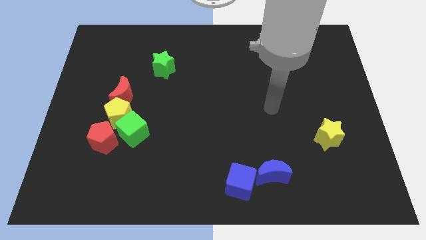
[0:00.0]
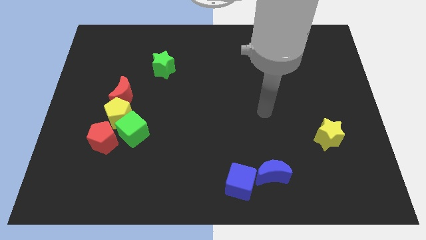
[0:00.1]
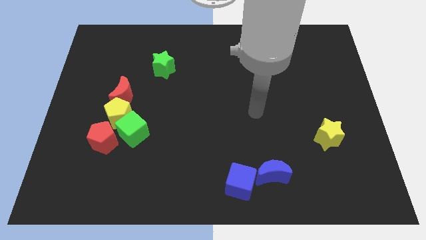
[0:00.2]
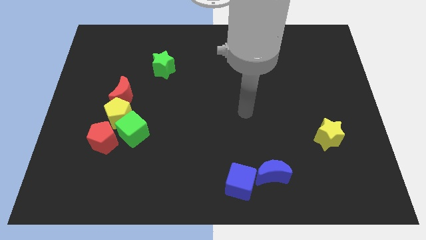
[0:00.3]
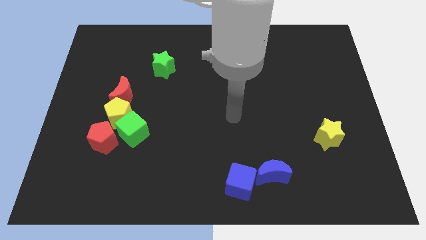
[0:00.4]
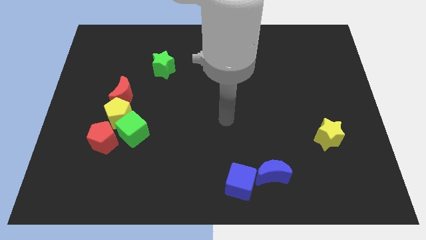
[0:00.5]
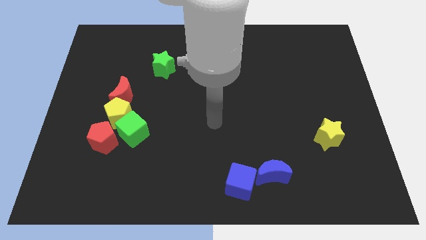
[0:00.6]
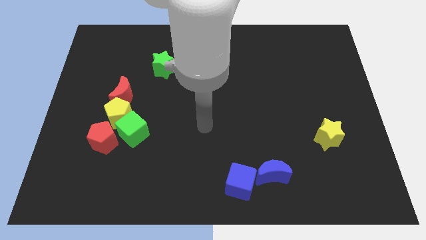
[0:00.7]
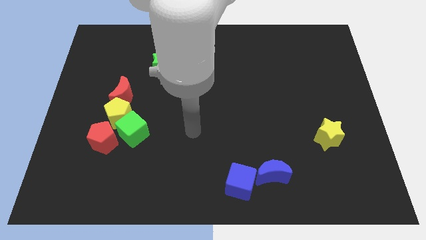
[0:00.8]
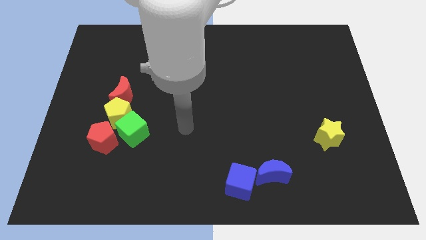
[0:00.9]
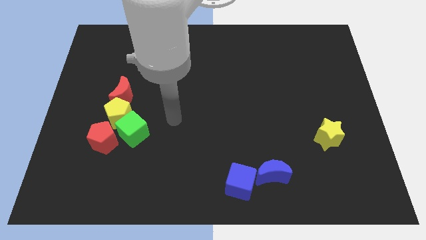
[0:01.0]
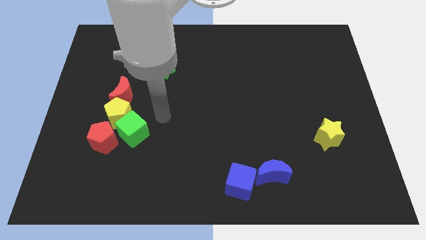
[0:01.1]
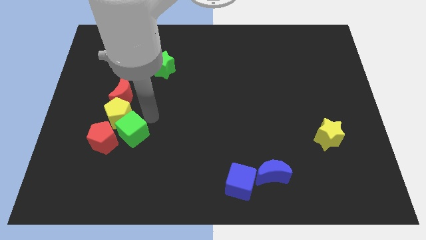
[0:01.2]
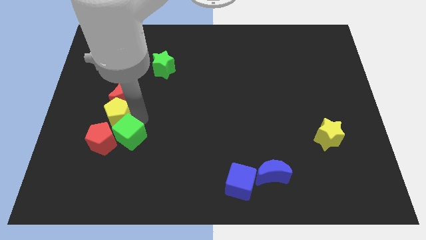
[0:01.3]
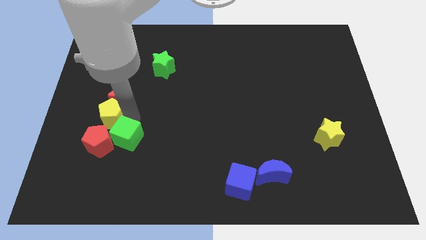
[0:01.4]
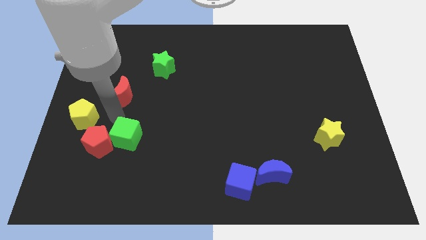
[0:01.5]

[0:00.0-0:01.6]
separate the red moon from the yellow pentagon

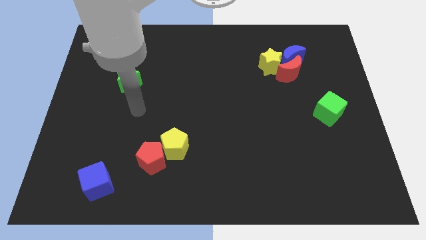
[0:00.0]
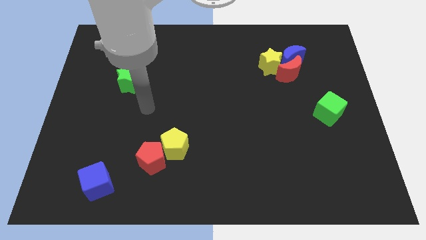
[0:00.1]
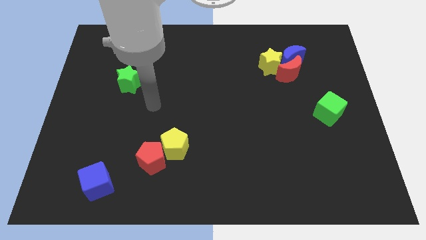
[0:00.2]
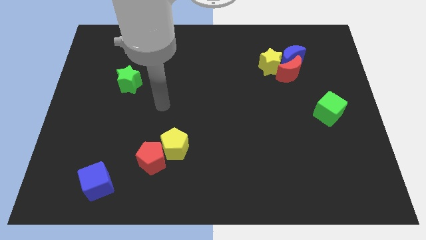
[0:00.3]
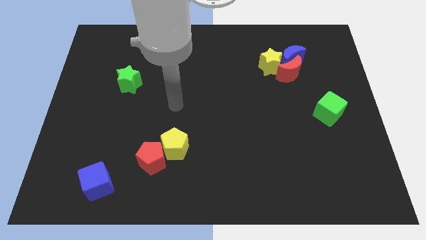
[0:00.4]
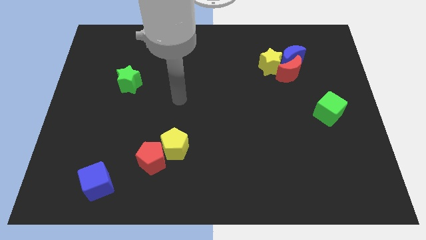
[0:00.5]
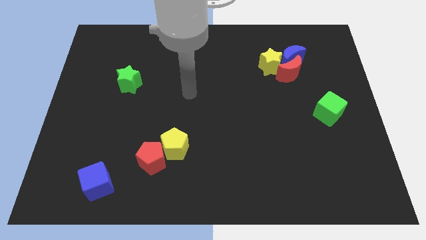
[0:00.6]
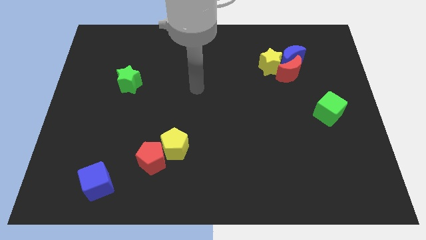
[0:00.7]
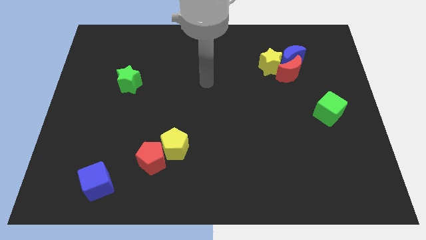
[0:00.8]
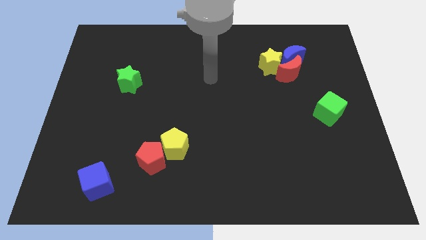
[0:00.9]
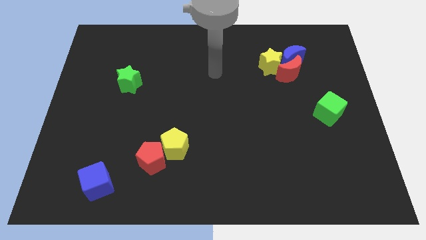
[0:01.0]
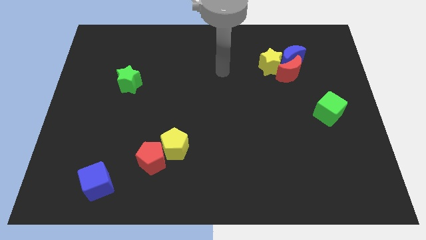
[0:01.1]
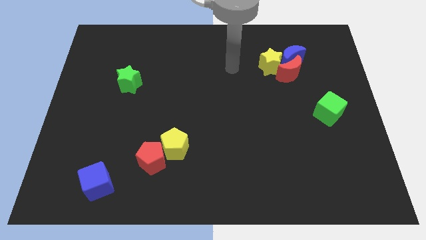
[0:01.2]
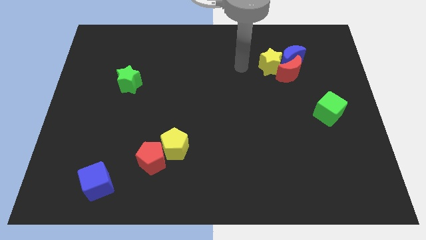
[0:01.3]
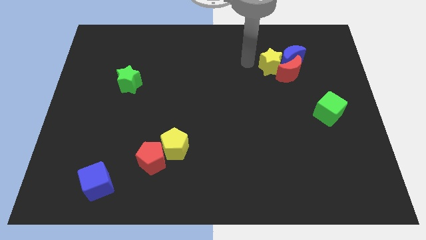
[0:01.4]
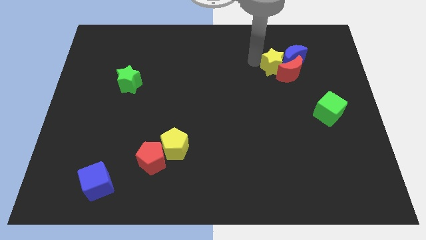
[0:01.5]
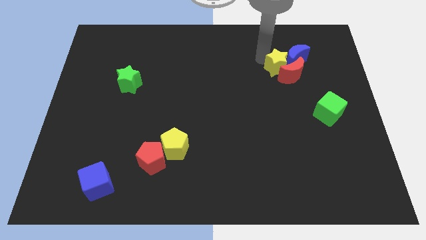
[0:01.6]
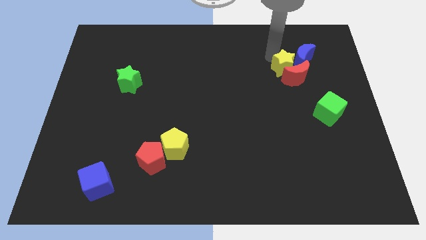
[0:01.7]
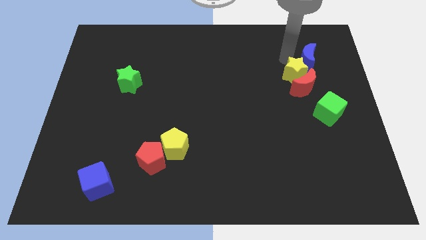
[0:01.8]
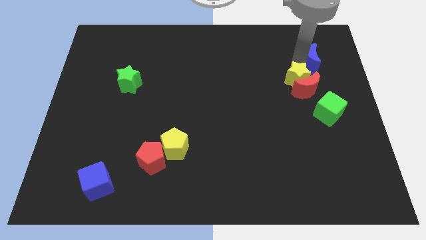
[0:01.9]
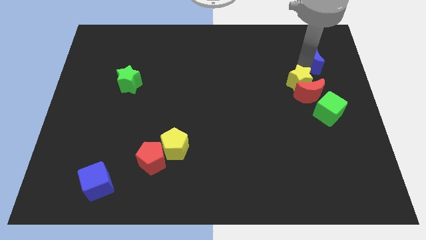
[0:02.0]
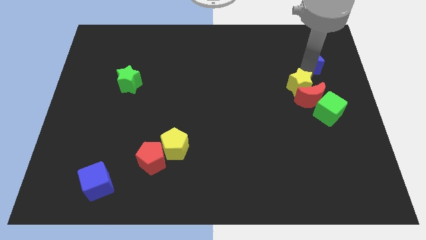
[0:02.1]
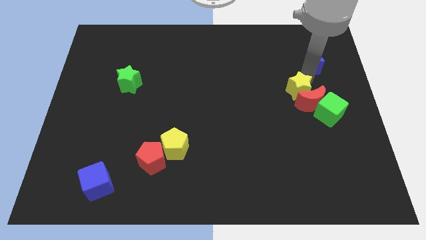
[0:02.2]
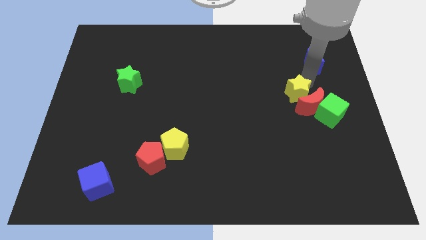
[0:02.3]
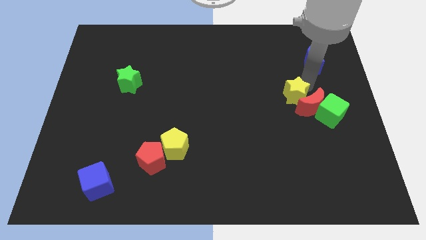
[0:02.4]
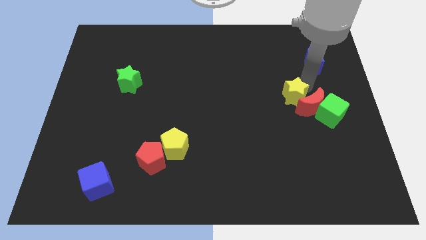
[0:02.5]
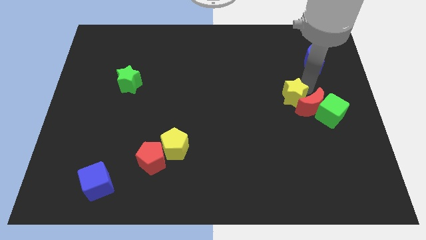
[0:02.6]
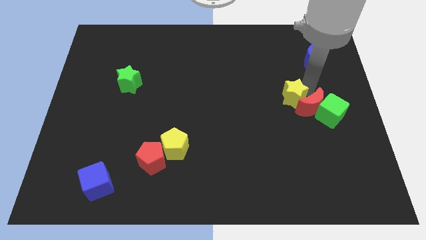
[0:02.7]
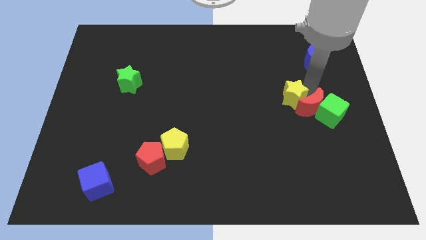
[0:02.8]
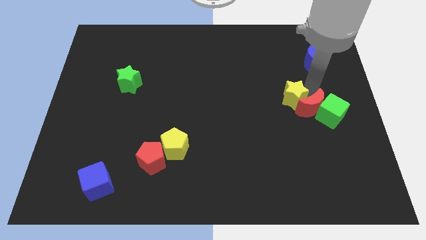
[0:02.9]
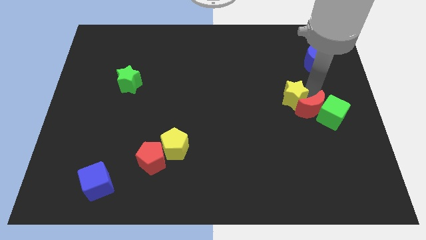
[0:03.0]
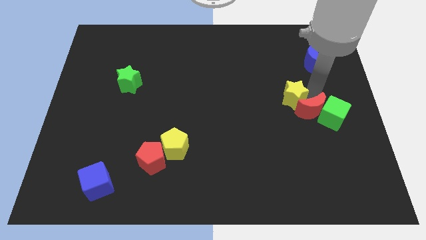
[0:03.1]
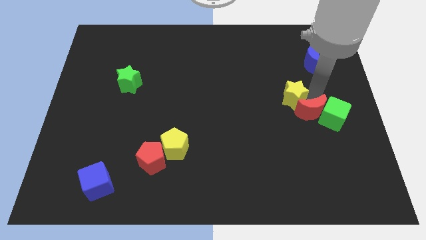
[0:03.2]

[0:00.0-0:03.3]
move the red moon away from the blue moon and yellow star

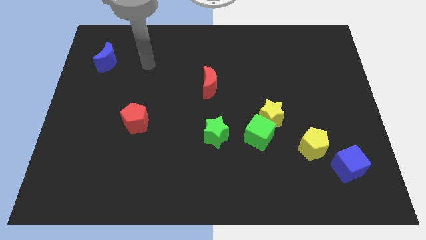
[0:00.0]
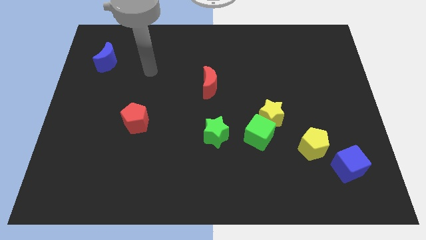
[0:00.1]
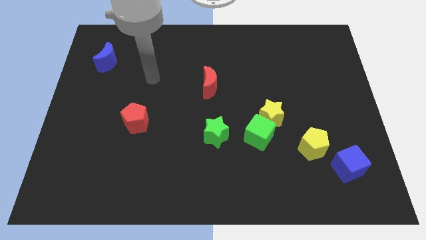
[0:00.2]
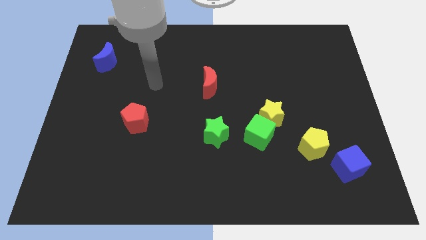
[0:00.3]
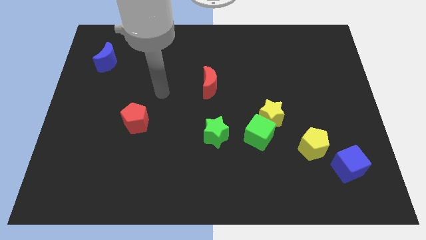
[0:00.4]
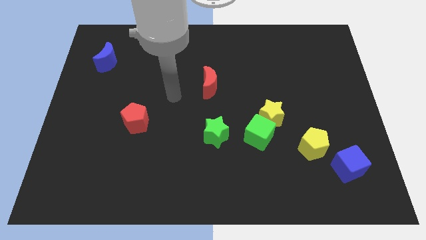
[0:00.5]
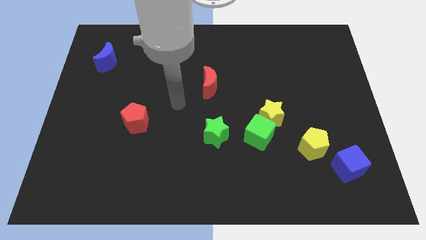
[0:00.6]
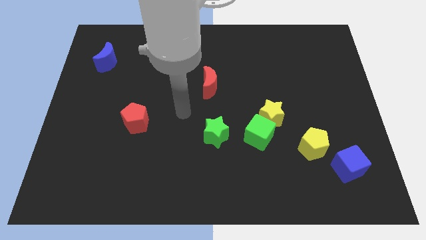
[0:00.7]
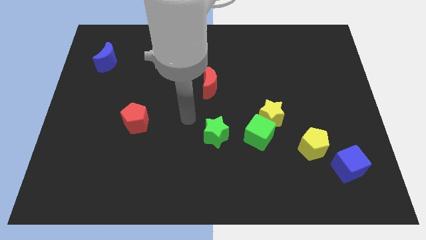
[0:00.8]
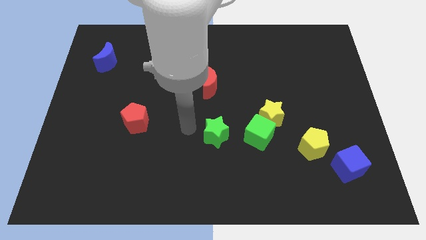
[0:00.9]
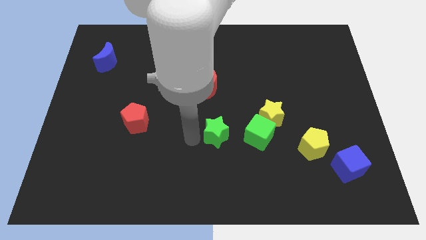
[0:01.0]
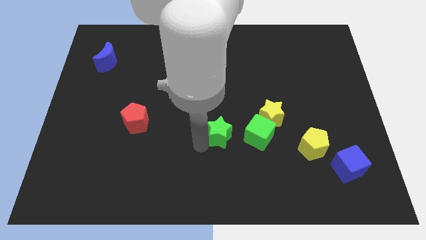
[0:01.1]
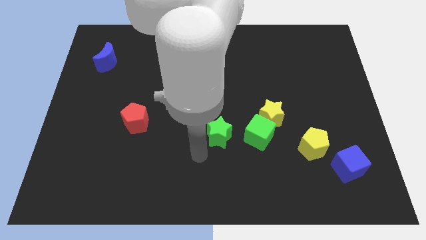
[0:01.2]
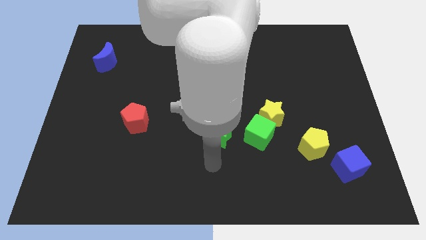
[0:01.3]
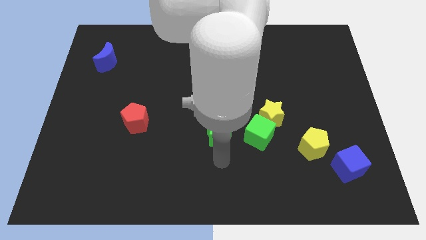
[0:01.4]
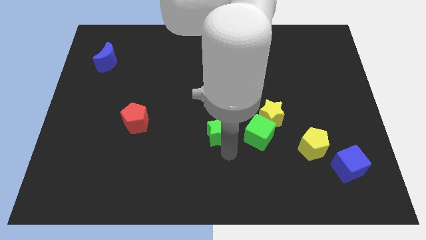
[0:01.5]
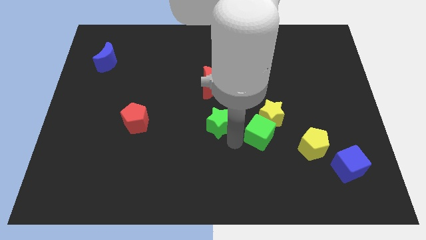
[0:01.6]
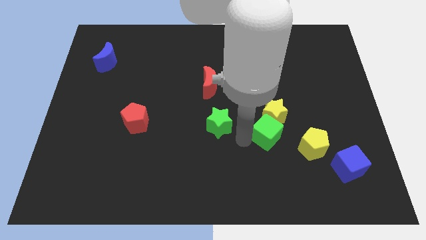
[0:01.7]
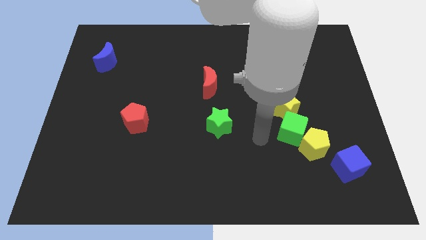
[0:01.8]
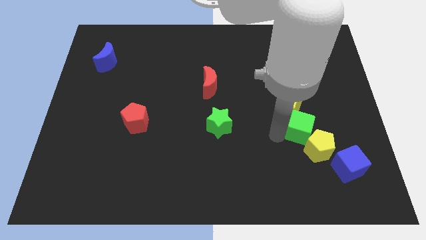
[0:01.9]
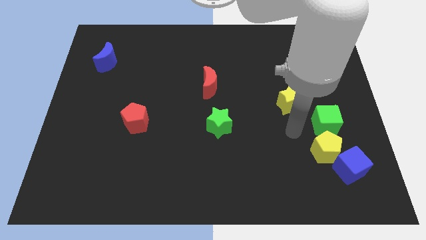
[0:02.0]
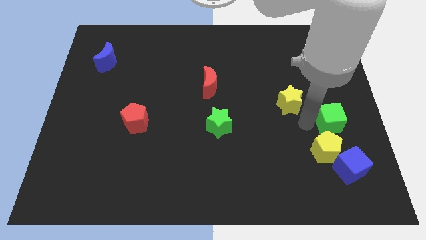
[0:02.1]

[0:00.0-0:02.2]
pull the yellow star apart from the green cube

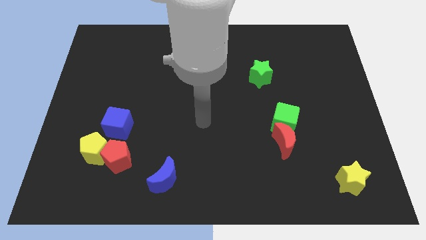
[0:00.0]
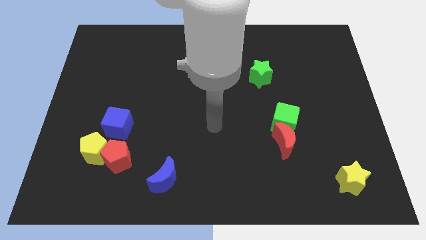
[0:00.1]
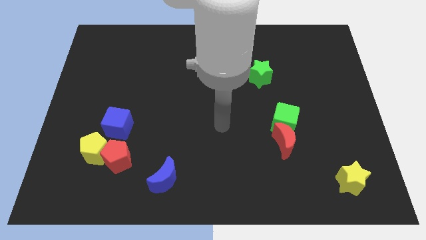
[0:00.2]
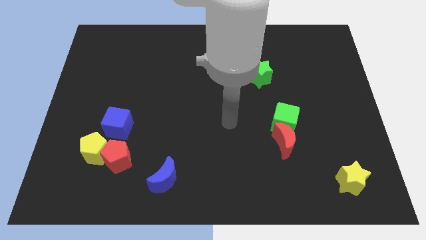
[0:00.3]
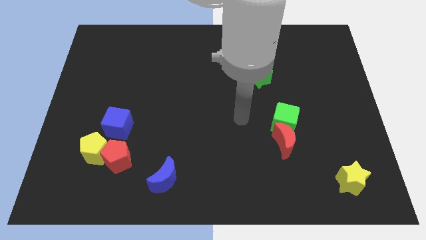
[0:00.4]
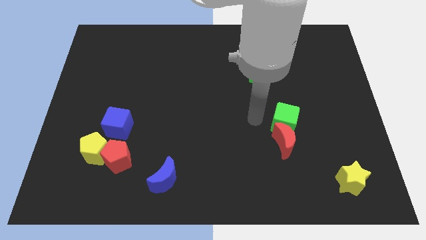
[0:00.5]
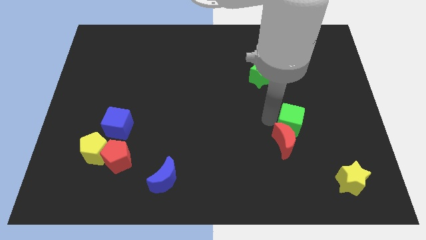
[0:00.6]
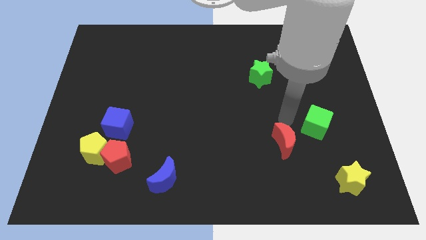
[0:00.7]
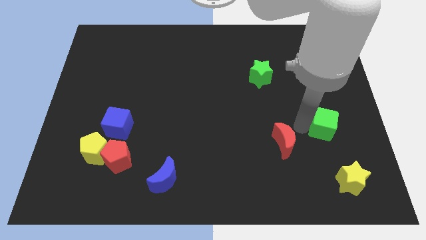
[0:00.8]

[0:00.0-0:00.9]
separate the red moon from the green cube

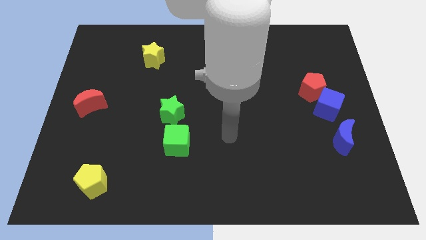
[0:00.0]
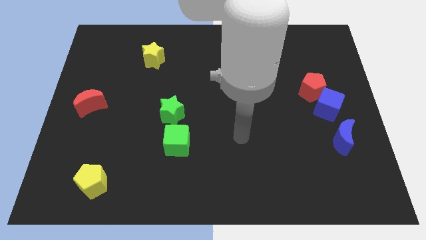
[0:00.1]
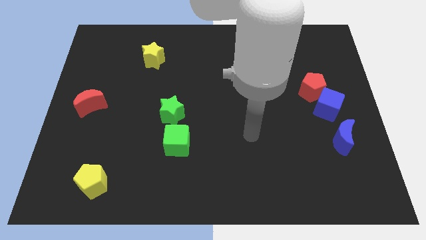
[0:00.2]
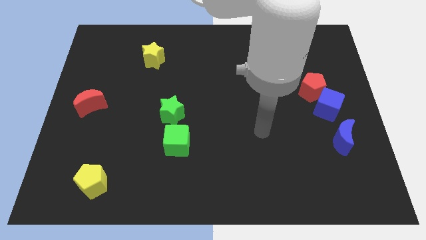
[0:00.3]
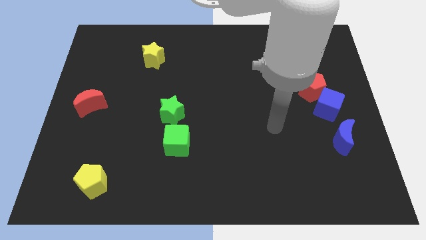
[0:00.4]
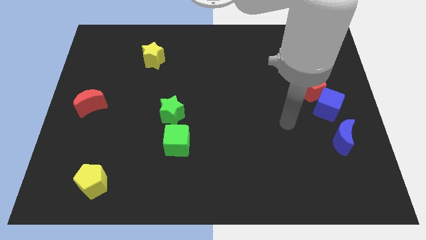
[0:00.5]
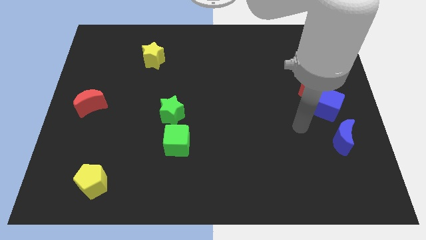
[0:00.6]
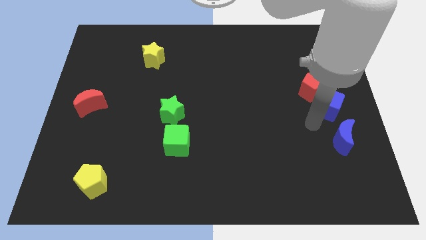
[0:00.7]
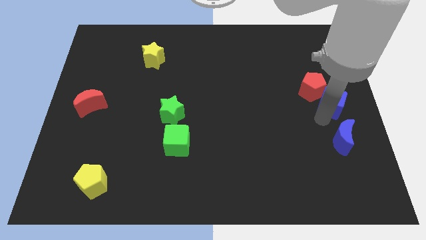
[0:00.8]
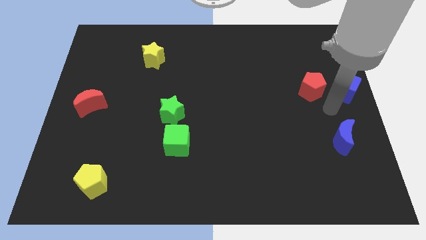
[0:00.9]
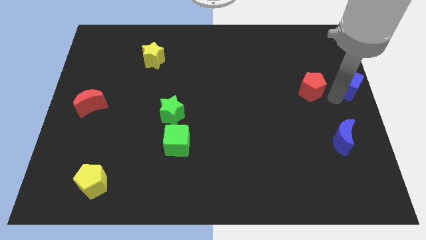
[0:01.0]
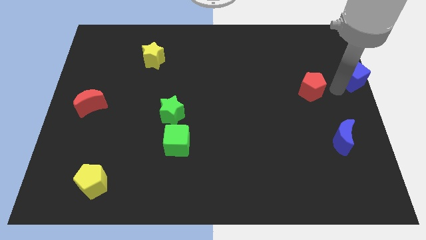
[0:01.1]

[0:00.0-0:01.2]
move the red pentagon away from the blue cube

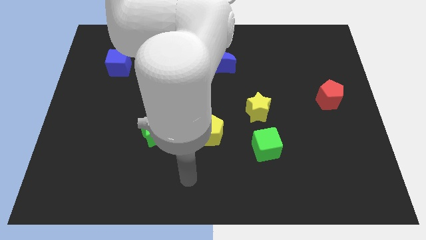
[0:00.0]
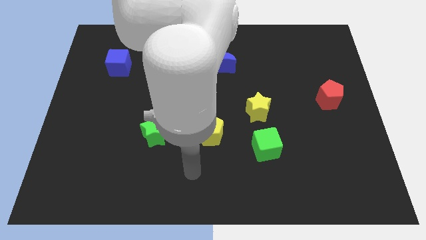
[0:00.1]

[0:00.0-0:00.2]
pull the green cube apart from the yellow star
